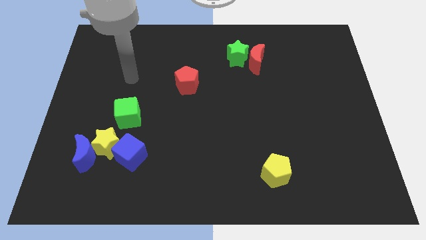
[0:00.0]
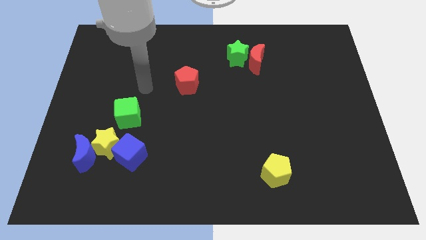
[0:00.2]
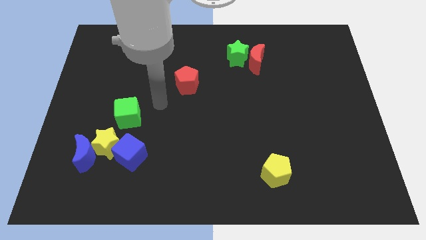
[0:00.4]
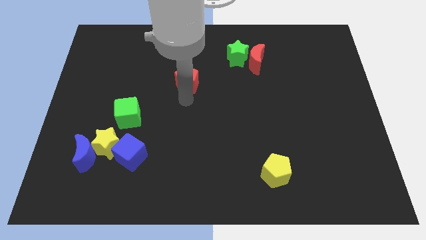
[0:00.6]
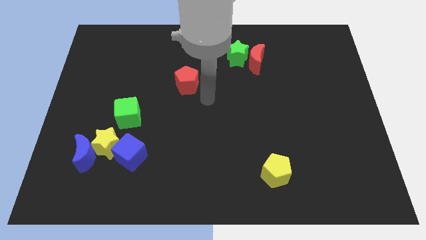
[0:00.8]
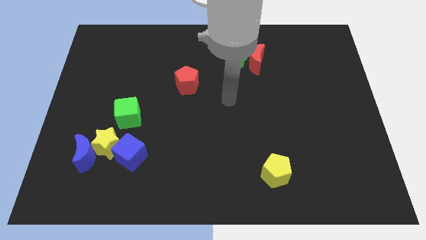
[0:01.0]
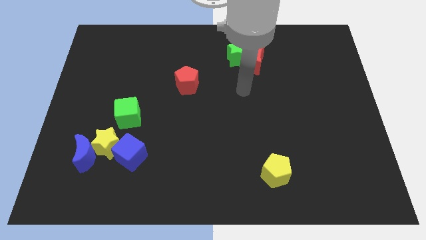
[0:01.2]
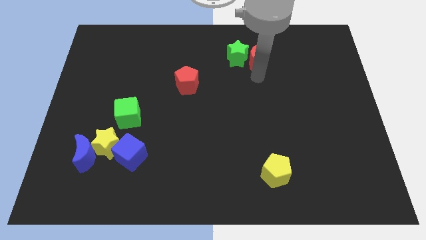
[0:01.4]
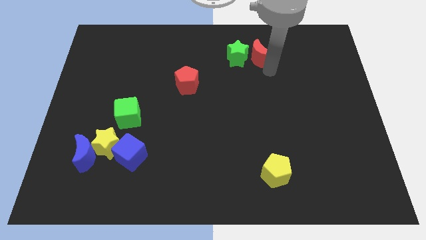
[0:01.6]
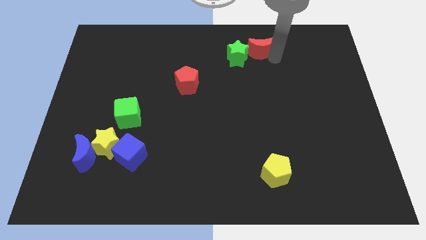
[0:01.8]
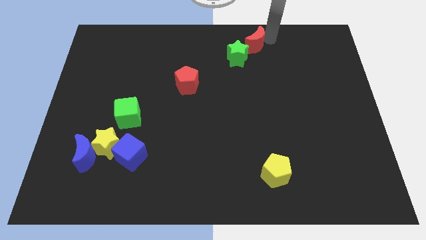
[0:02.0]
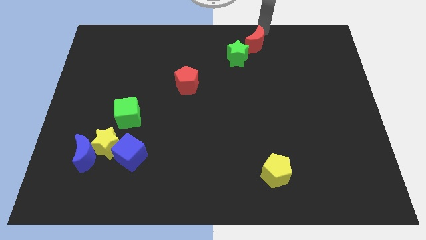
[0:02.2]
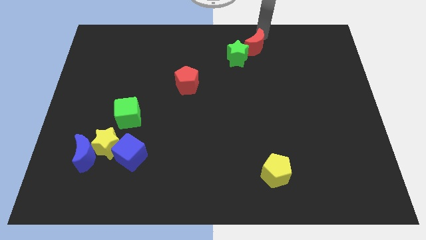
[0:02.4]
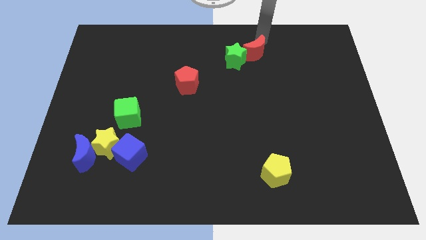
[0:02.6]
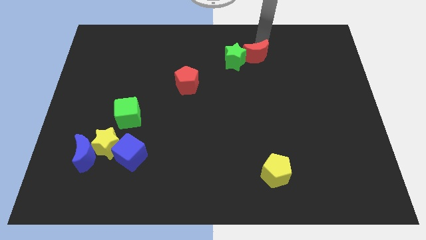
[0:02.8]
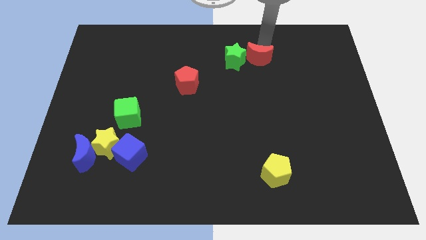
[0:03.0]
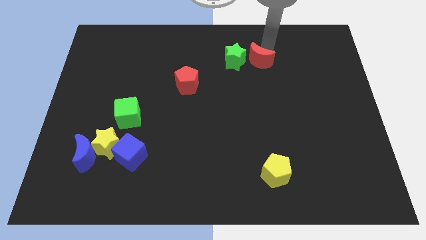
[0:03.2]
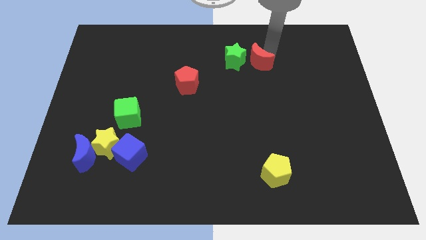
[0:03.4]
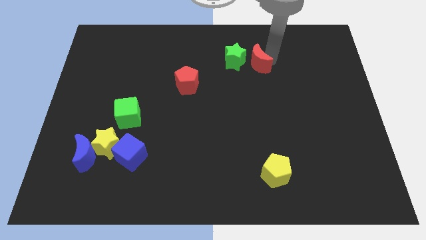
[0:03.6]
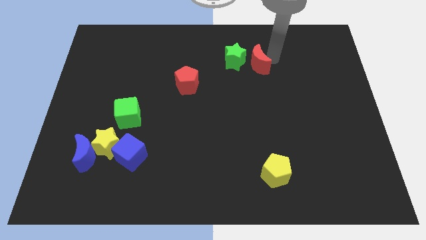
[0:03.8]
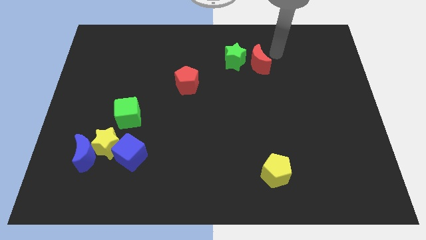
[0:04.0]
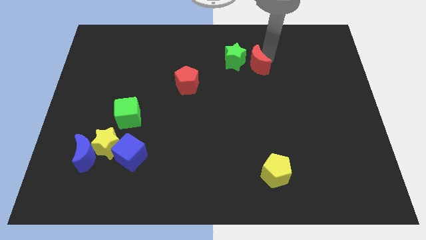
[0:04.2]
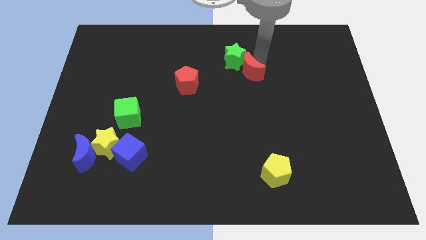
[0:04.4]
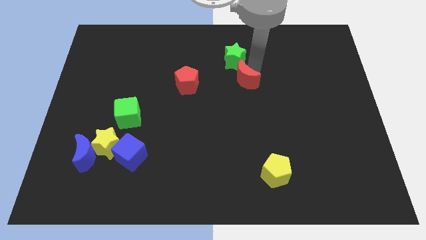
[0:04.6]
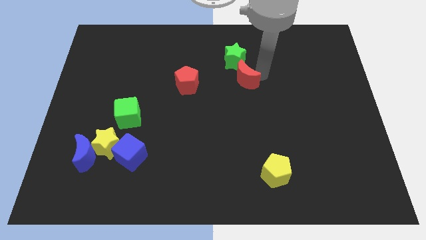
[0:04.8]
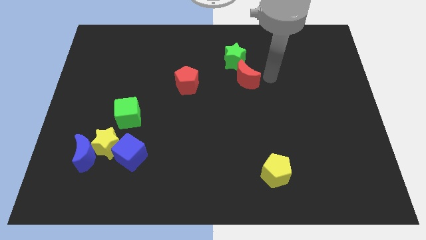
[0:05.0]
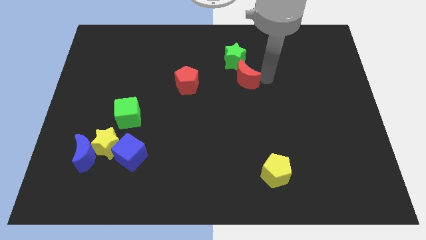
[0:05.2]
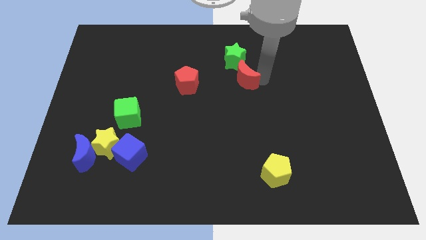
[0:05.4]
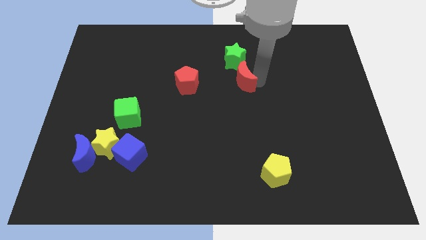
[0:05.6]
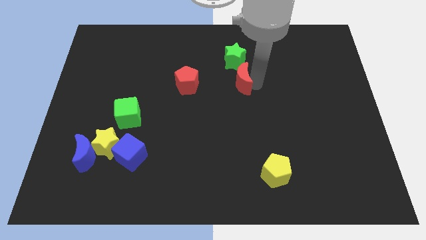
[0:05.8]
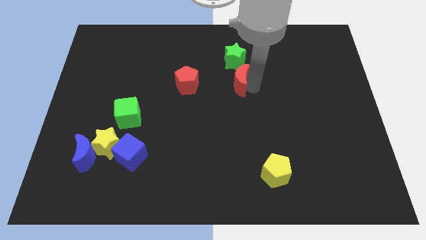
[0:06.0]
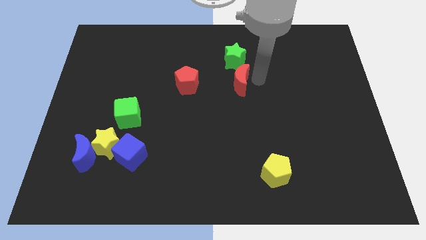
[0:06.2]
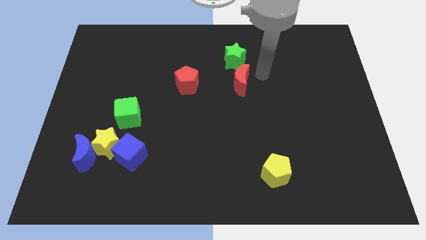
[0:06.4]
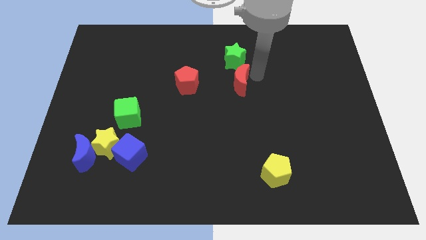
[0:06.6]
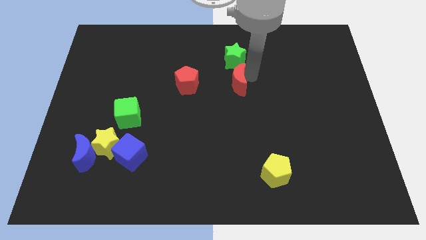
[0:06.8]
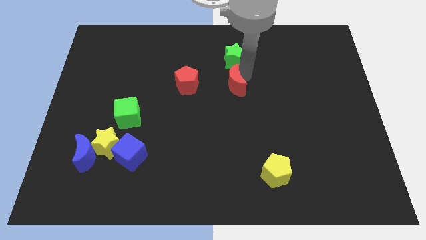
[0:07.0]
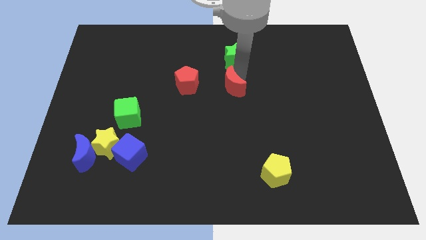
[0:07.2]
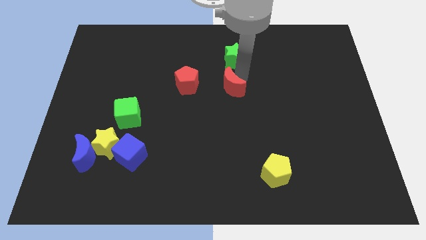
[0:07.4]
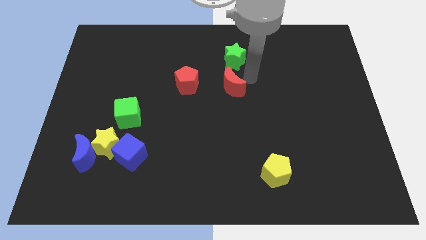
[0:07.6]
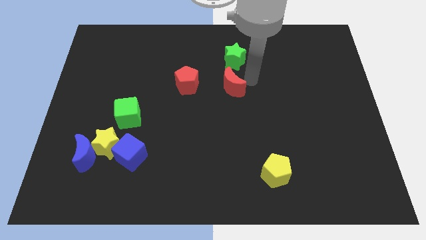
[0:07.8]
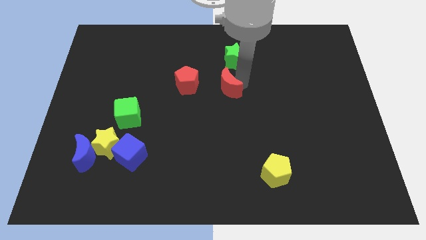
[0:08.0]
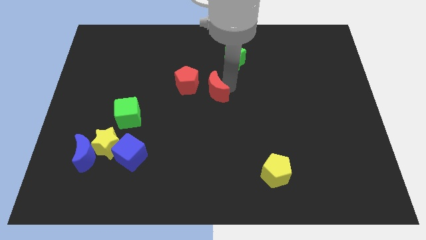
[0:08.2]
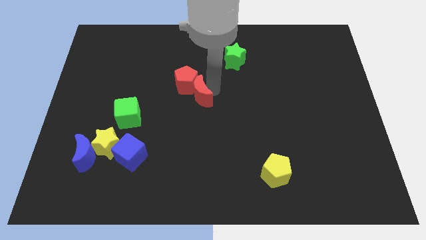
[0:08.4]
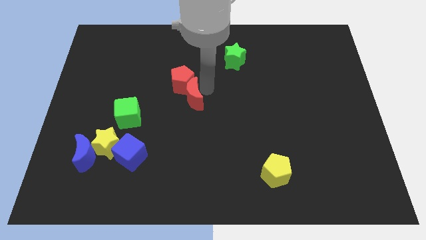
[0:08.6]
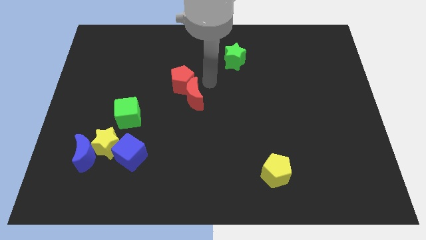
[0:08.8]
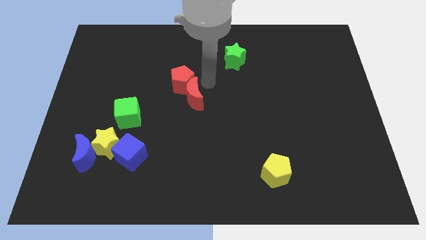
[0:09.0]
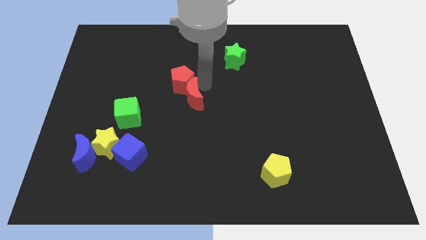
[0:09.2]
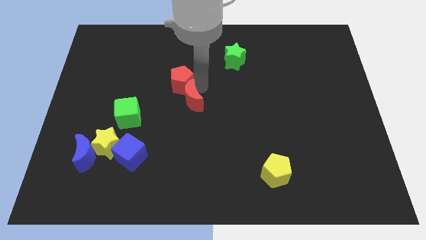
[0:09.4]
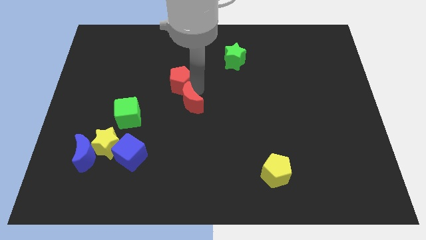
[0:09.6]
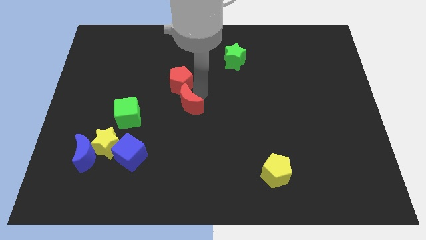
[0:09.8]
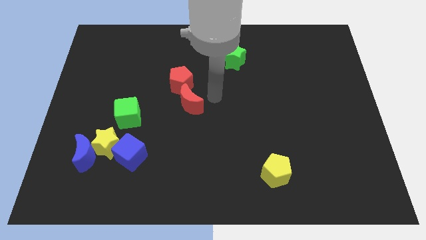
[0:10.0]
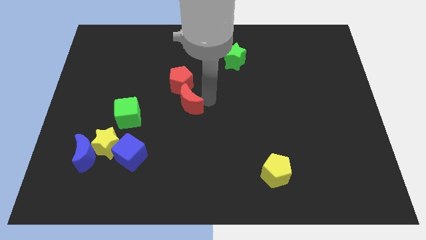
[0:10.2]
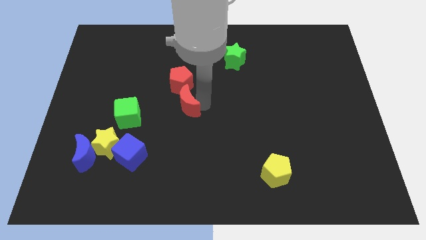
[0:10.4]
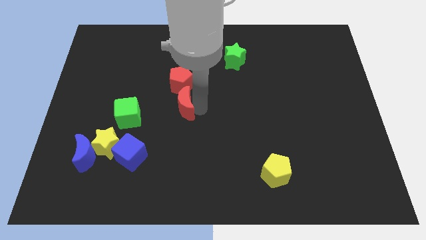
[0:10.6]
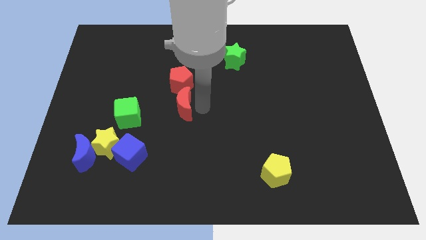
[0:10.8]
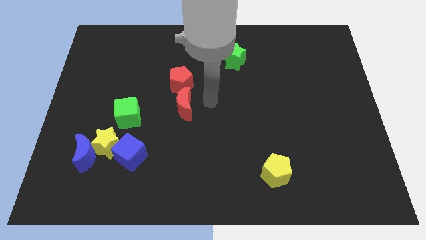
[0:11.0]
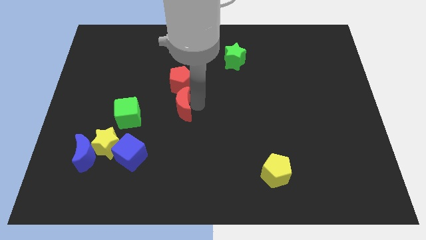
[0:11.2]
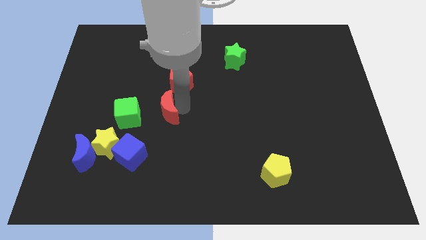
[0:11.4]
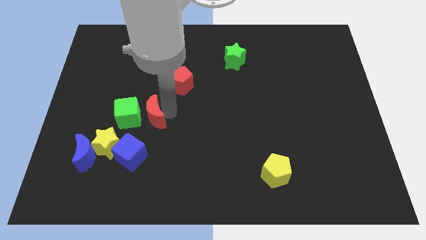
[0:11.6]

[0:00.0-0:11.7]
put the red moon towards the green cube

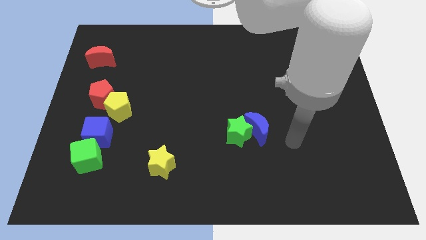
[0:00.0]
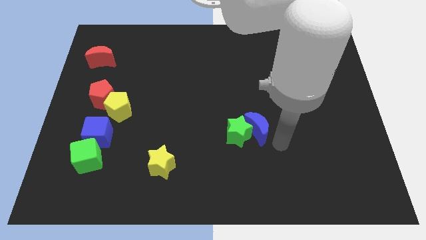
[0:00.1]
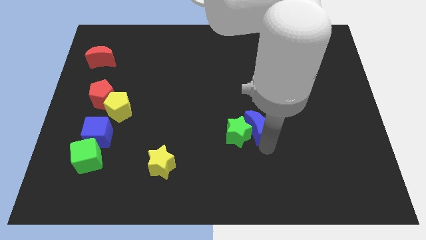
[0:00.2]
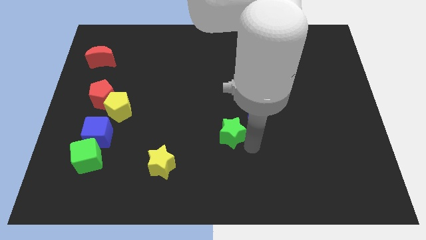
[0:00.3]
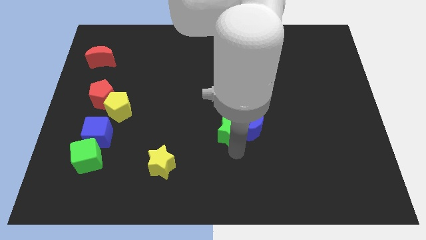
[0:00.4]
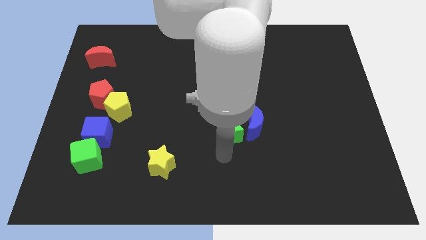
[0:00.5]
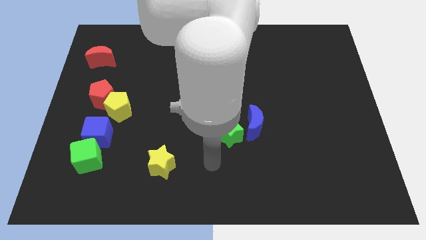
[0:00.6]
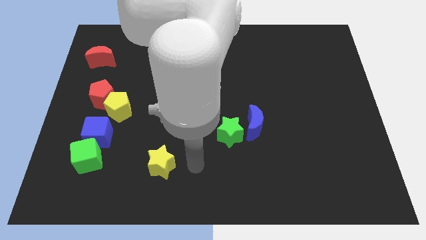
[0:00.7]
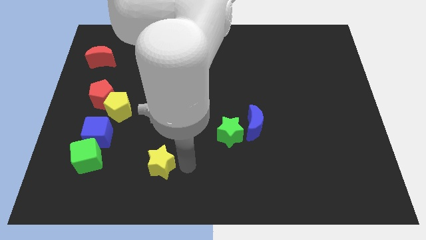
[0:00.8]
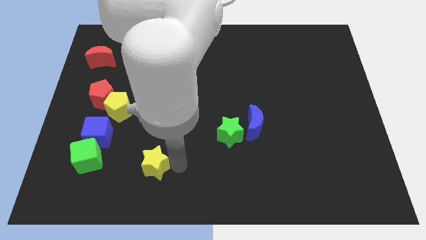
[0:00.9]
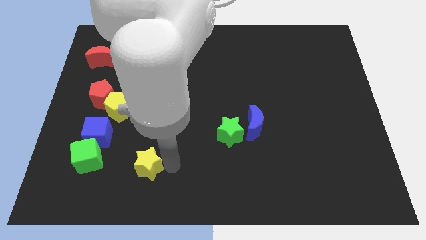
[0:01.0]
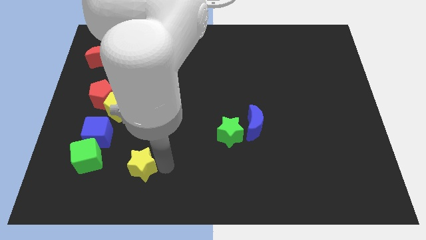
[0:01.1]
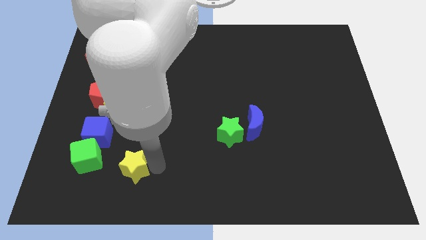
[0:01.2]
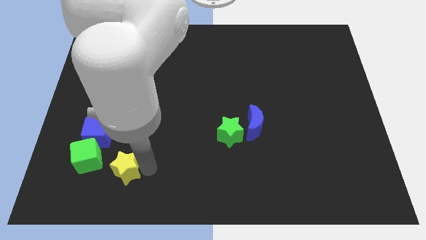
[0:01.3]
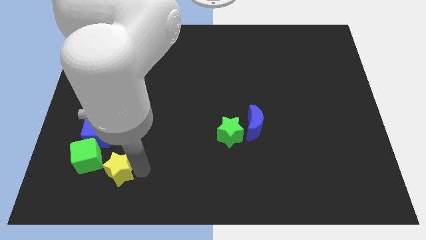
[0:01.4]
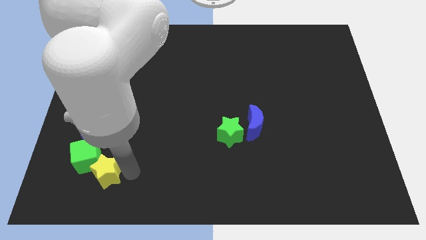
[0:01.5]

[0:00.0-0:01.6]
slide the yellow star next to the green cube
